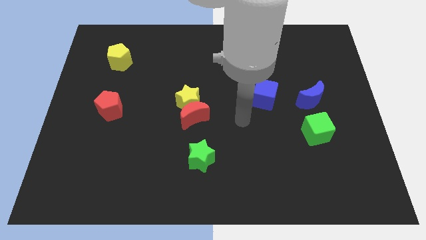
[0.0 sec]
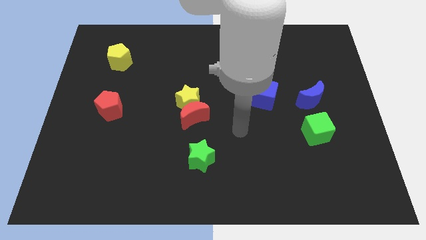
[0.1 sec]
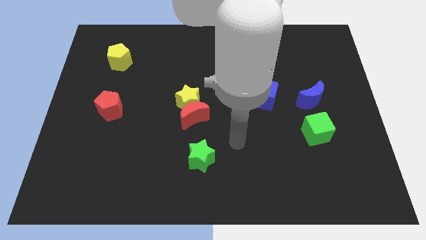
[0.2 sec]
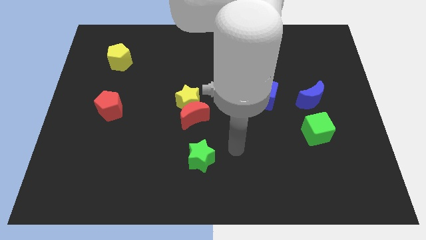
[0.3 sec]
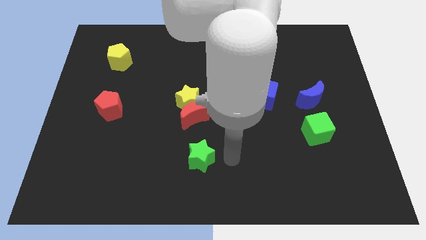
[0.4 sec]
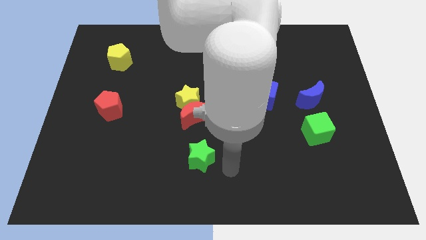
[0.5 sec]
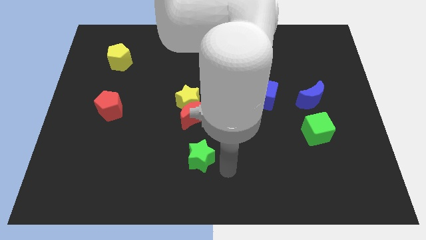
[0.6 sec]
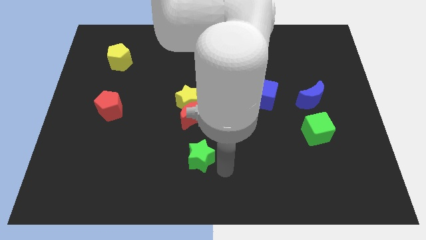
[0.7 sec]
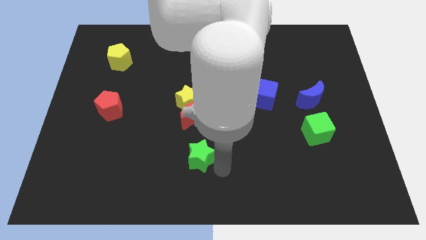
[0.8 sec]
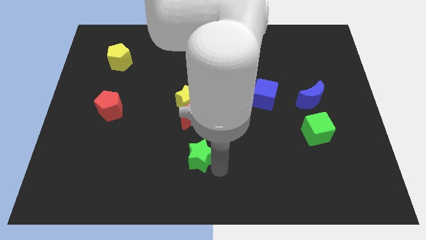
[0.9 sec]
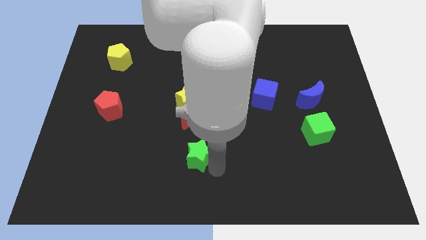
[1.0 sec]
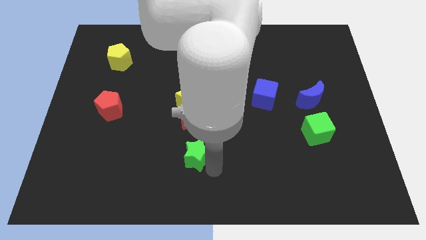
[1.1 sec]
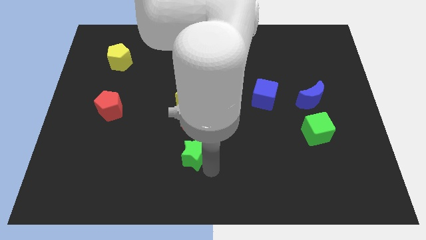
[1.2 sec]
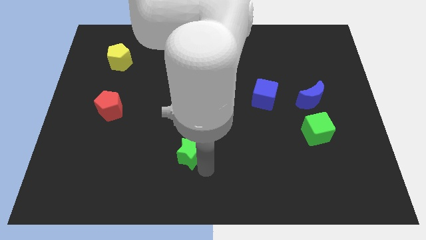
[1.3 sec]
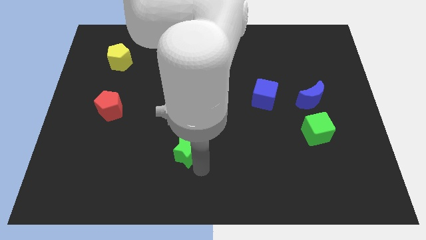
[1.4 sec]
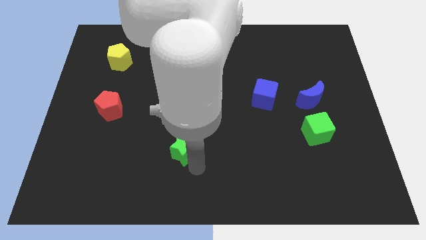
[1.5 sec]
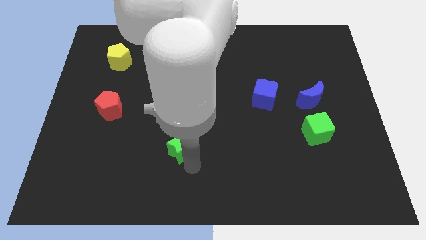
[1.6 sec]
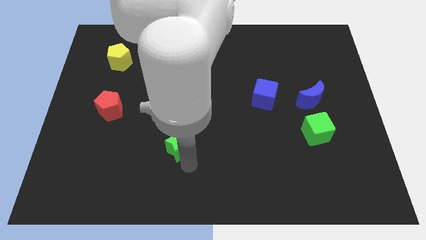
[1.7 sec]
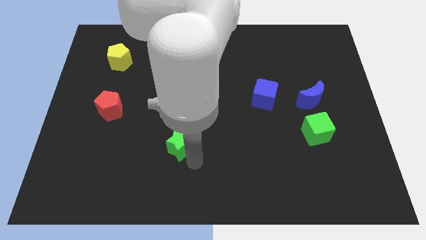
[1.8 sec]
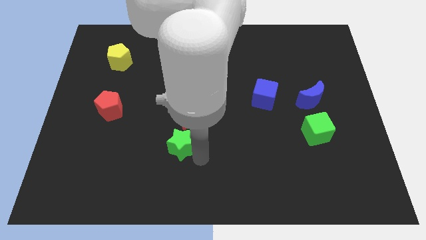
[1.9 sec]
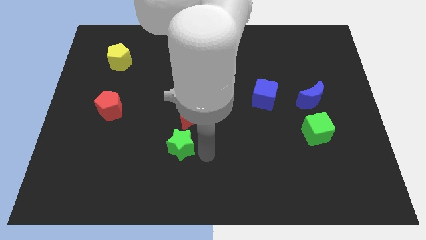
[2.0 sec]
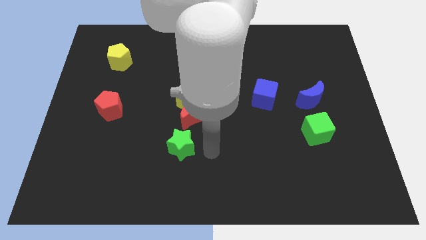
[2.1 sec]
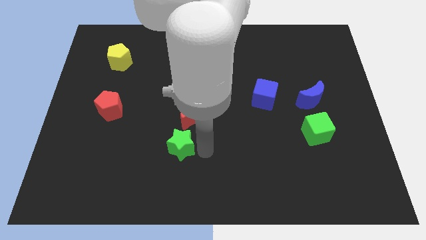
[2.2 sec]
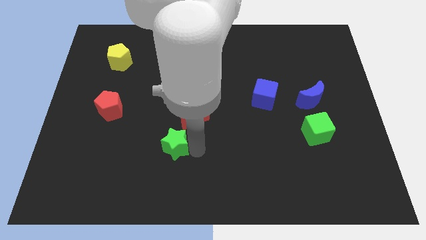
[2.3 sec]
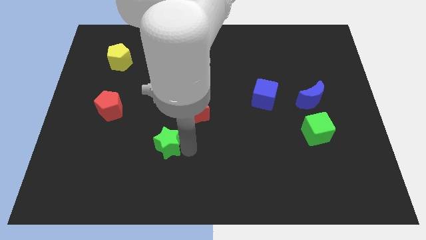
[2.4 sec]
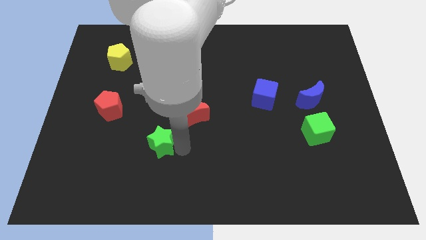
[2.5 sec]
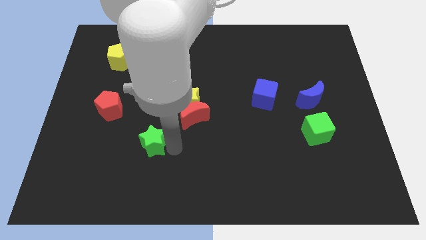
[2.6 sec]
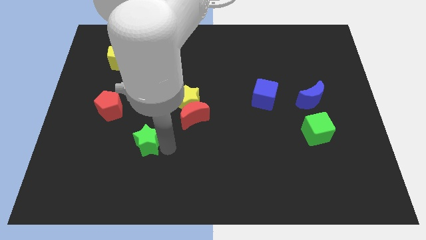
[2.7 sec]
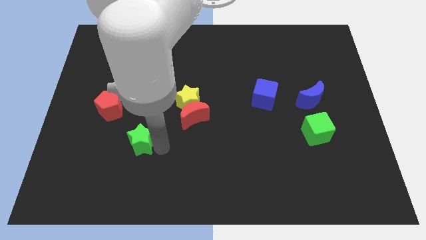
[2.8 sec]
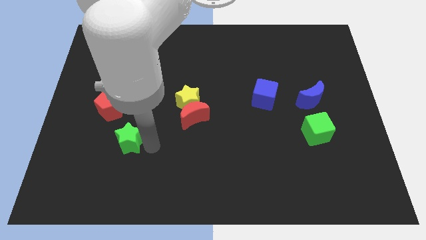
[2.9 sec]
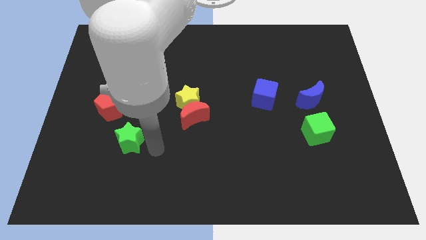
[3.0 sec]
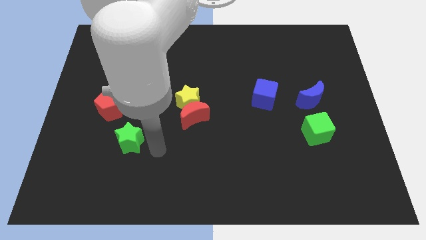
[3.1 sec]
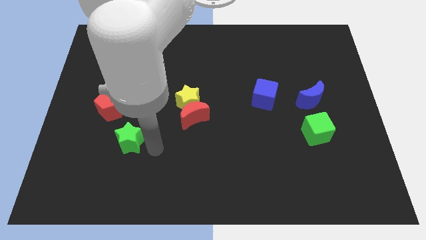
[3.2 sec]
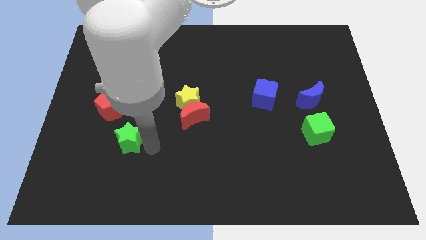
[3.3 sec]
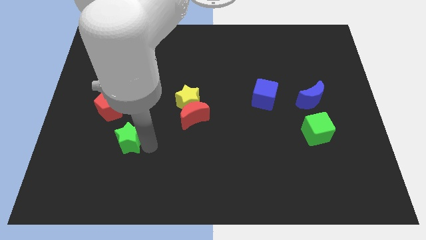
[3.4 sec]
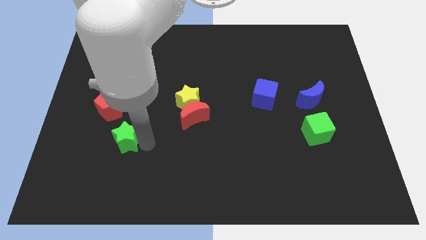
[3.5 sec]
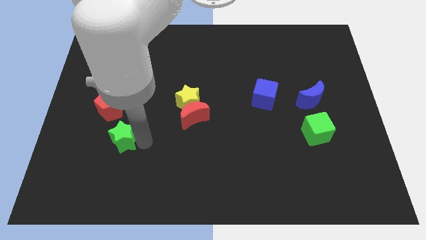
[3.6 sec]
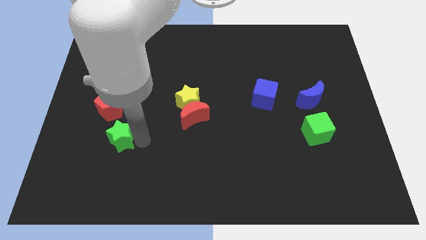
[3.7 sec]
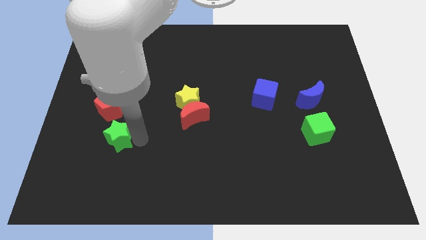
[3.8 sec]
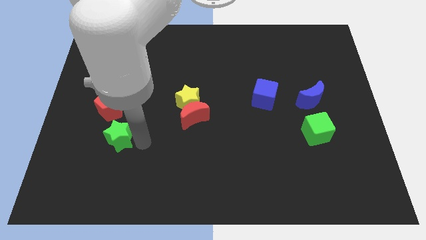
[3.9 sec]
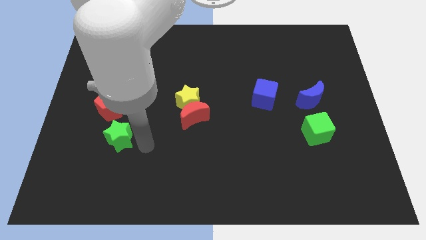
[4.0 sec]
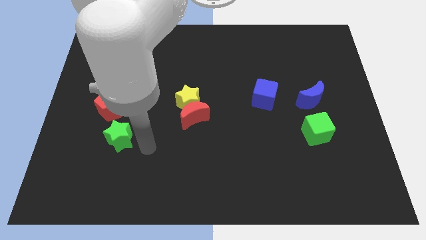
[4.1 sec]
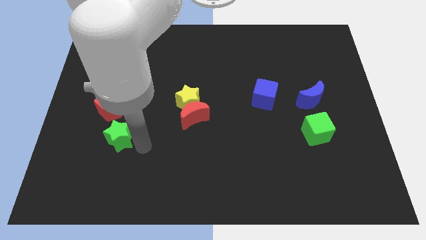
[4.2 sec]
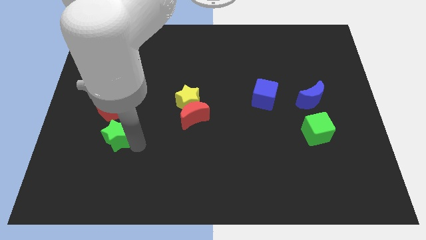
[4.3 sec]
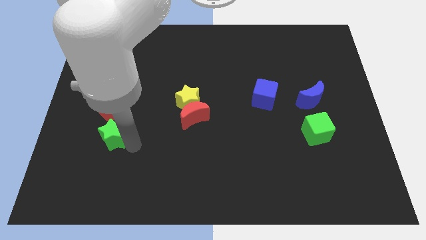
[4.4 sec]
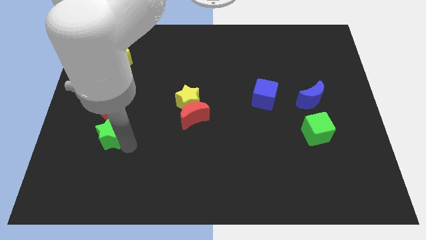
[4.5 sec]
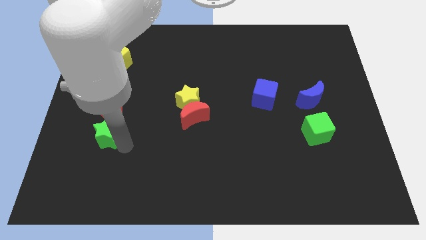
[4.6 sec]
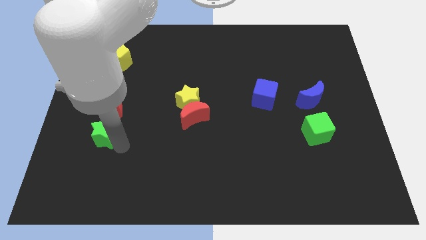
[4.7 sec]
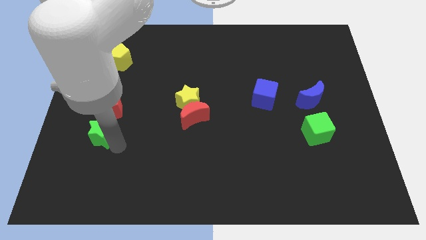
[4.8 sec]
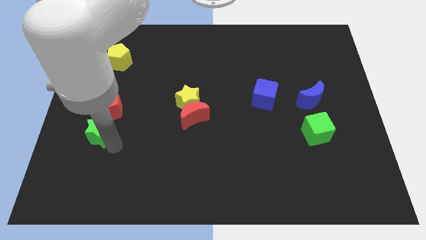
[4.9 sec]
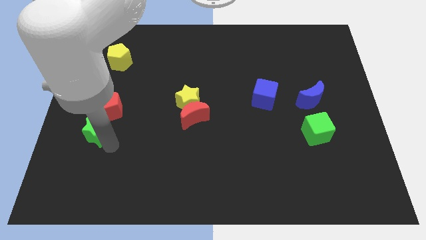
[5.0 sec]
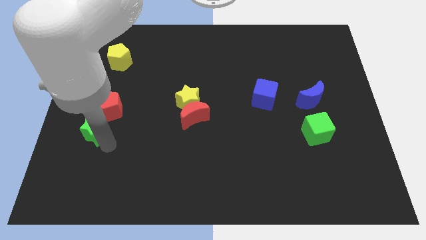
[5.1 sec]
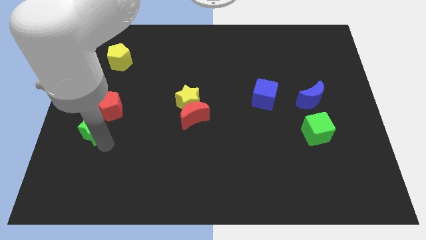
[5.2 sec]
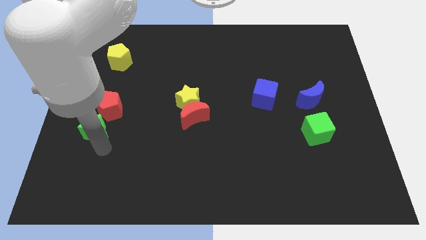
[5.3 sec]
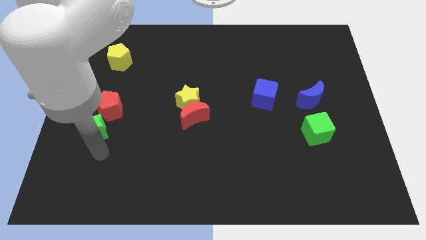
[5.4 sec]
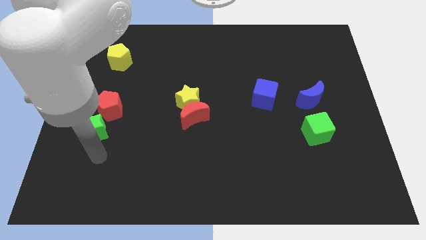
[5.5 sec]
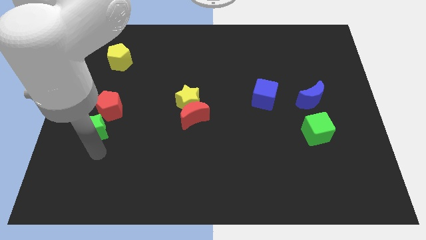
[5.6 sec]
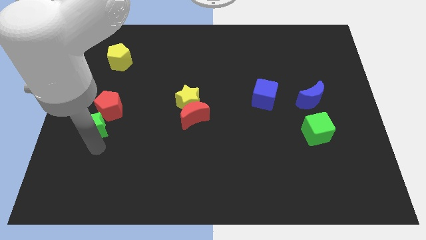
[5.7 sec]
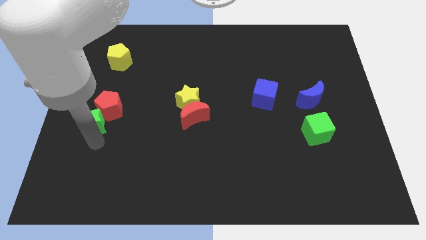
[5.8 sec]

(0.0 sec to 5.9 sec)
push the green star to the center left
